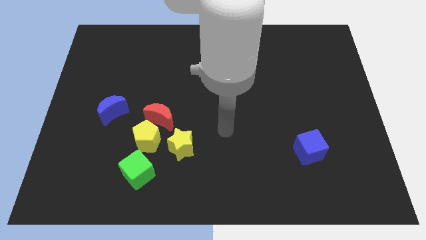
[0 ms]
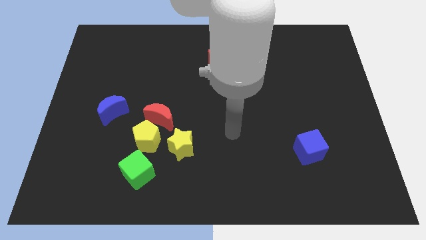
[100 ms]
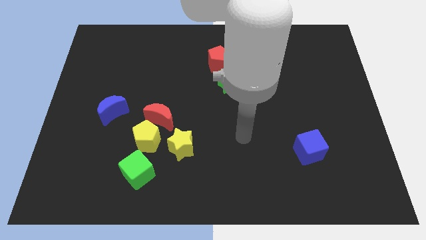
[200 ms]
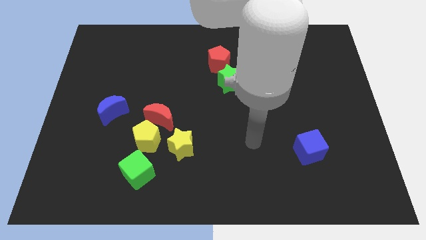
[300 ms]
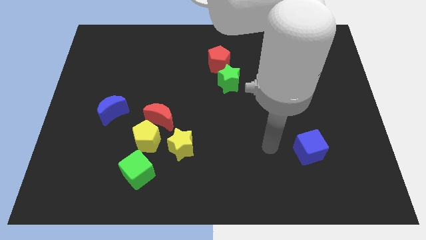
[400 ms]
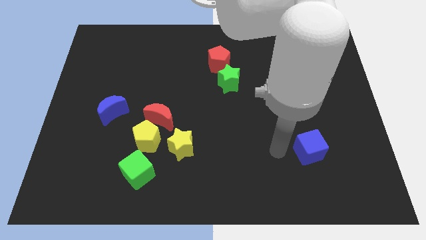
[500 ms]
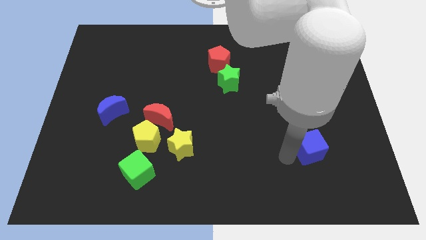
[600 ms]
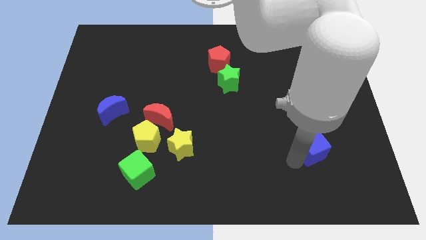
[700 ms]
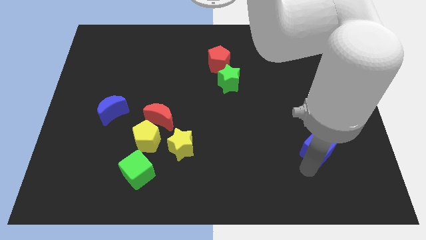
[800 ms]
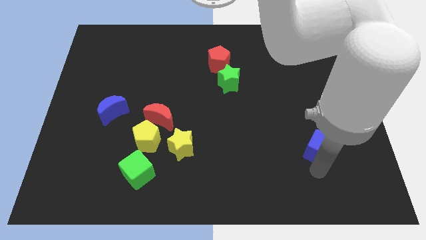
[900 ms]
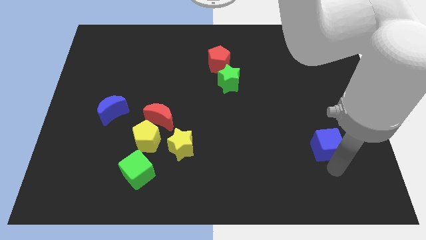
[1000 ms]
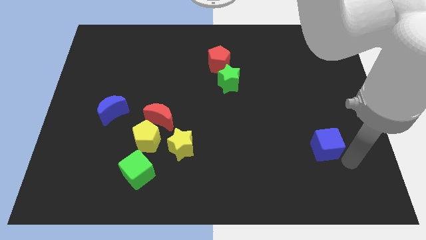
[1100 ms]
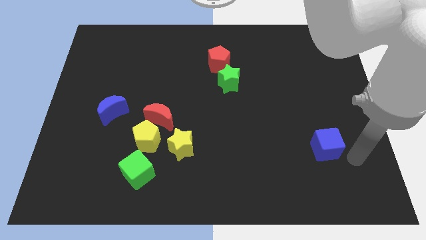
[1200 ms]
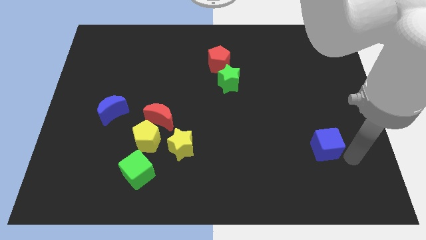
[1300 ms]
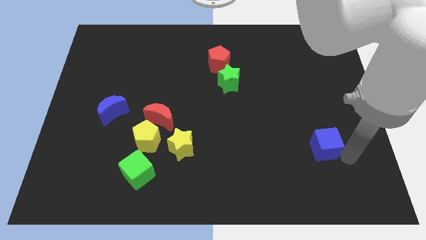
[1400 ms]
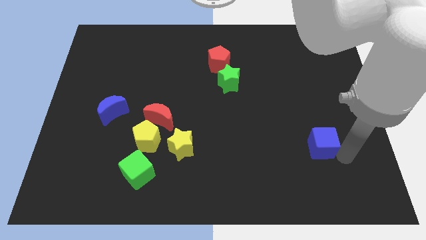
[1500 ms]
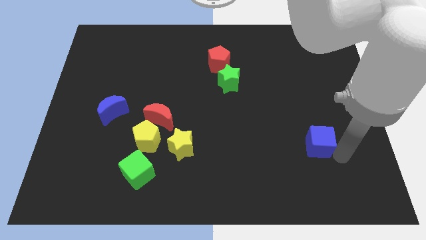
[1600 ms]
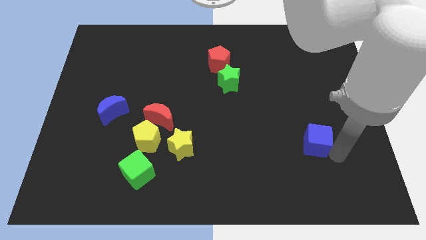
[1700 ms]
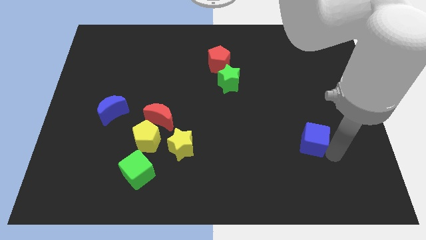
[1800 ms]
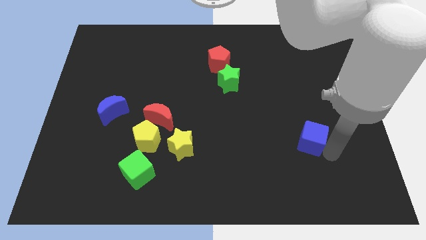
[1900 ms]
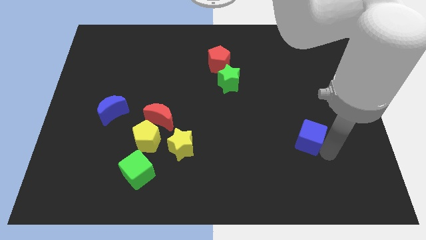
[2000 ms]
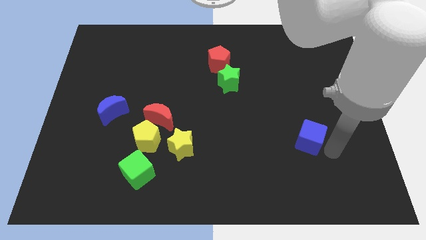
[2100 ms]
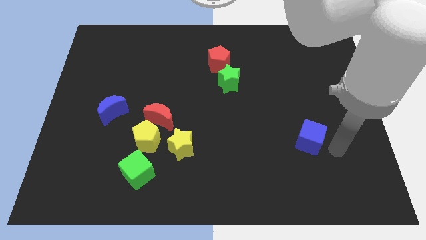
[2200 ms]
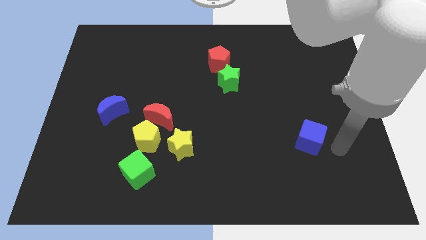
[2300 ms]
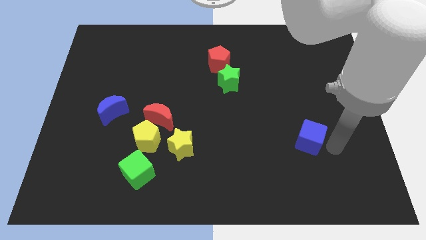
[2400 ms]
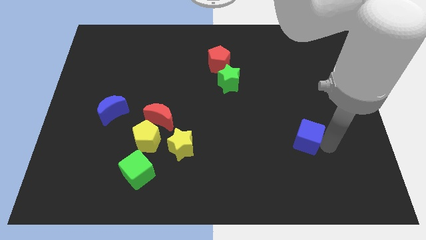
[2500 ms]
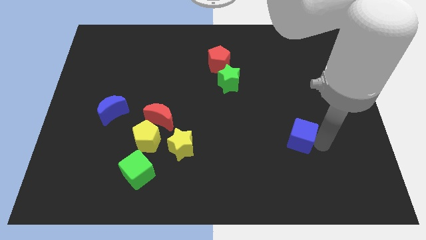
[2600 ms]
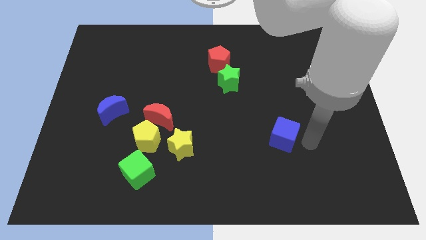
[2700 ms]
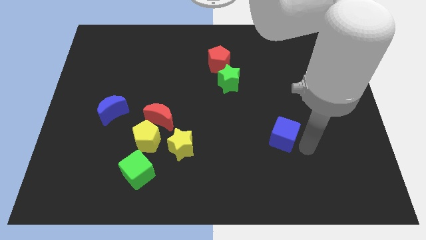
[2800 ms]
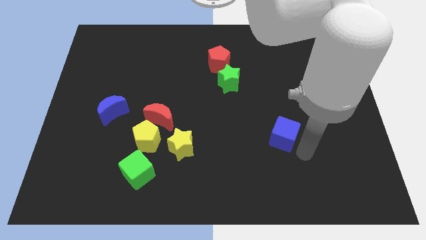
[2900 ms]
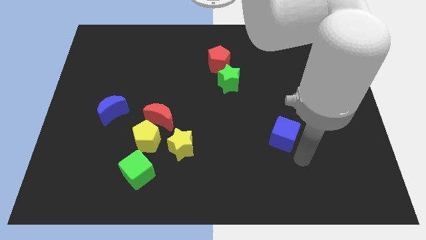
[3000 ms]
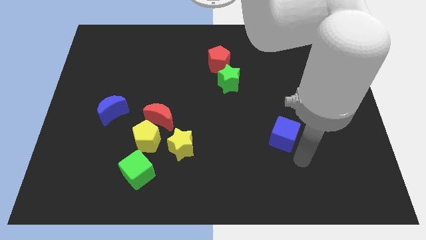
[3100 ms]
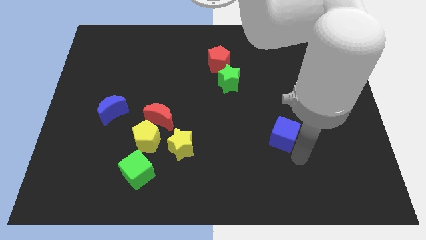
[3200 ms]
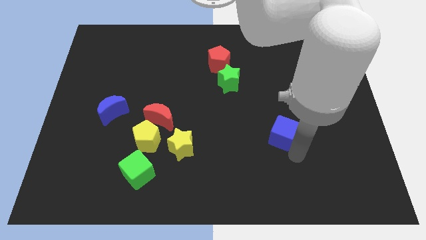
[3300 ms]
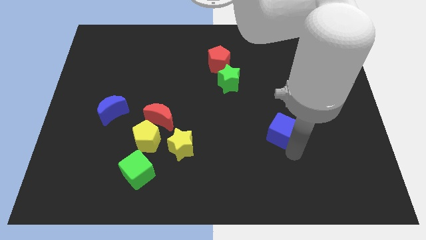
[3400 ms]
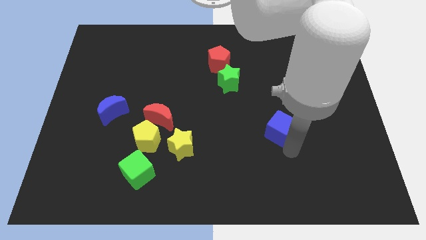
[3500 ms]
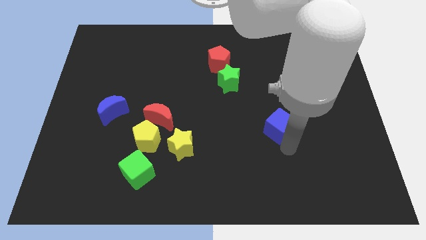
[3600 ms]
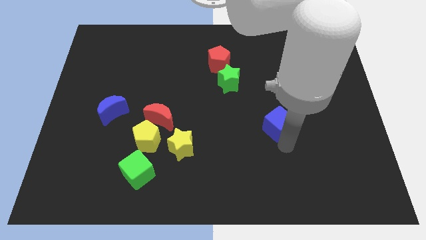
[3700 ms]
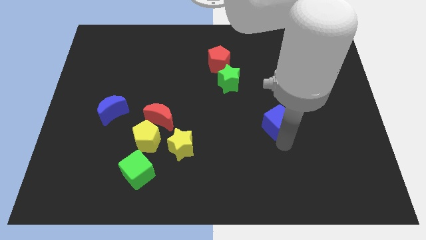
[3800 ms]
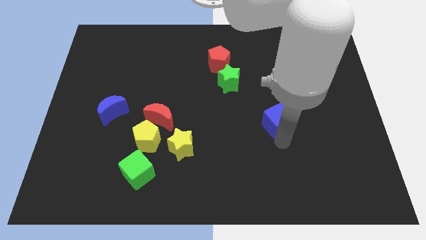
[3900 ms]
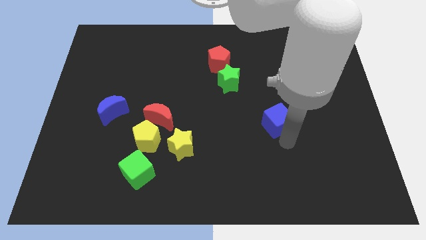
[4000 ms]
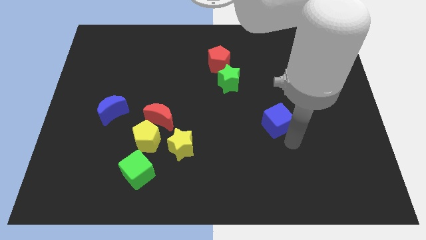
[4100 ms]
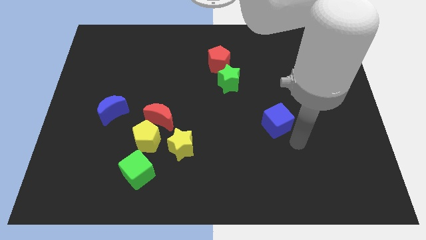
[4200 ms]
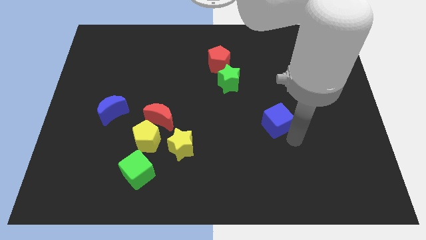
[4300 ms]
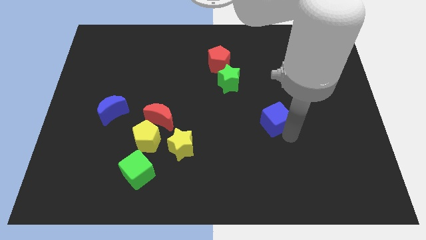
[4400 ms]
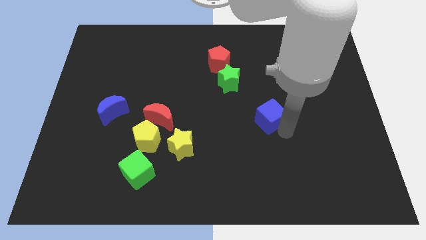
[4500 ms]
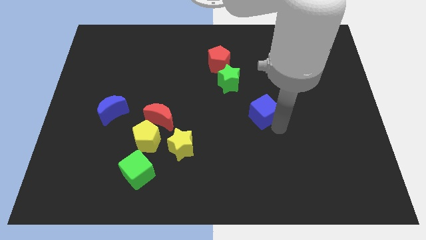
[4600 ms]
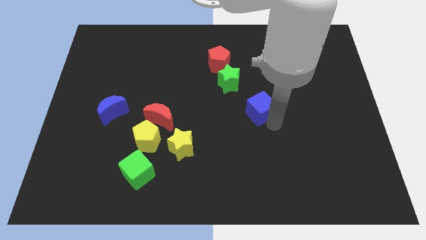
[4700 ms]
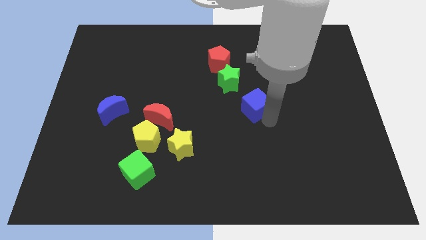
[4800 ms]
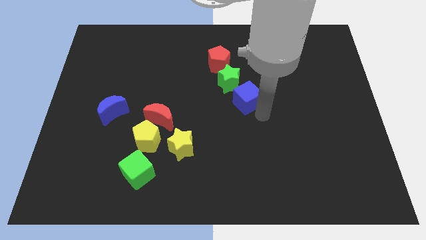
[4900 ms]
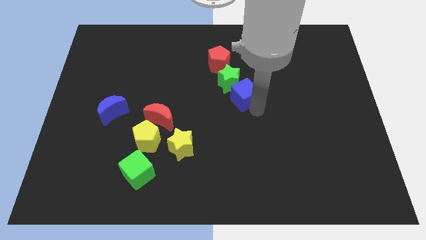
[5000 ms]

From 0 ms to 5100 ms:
move the blue cube to the green star

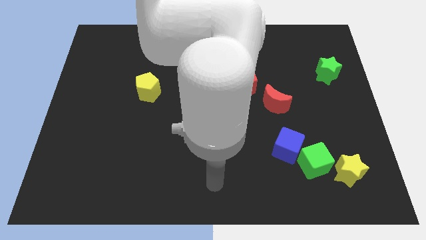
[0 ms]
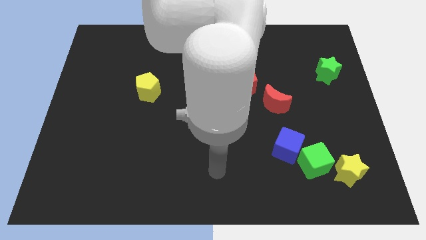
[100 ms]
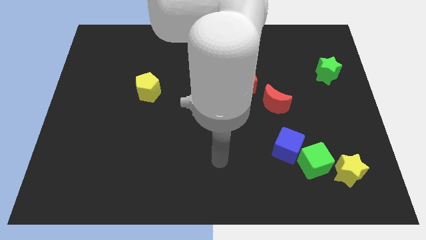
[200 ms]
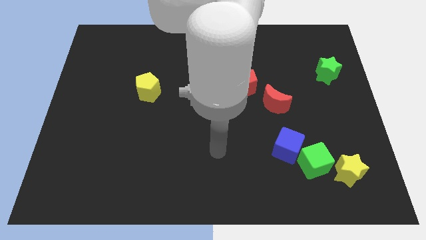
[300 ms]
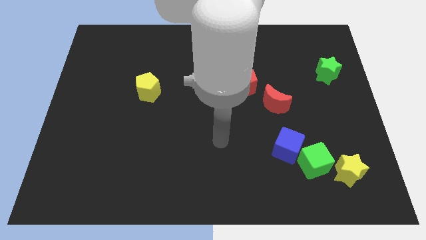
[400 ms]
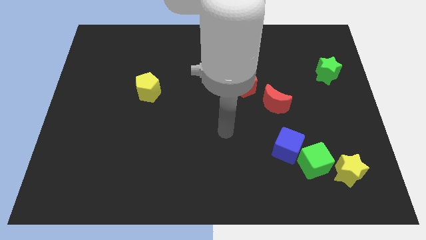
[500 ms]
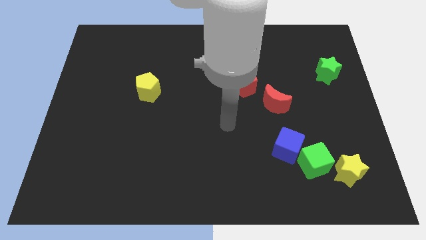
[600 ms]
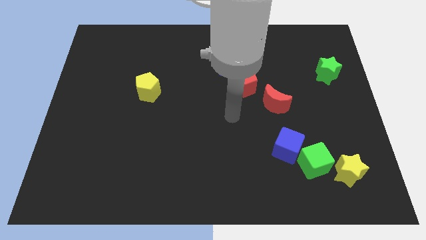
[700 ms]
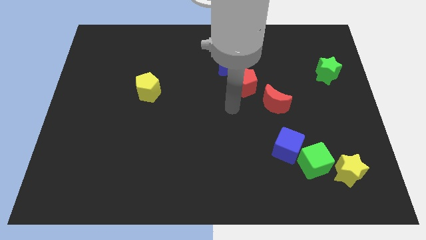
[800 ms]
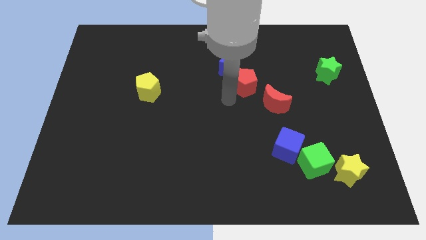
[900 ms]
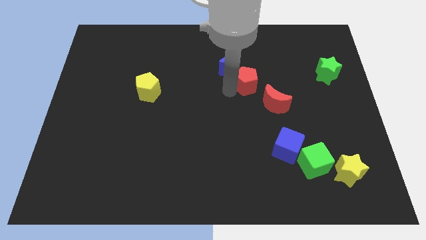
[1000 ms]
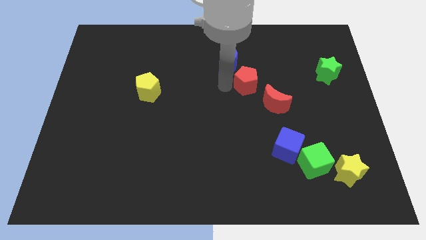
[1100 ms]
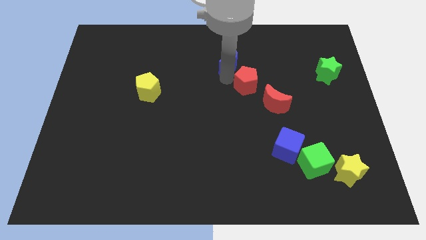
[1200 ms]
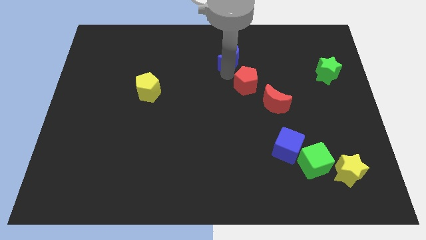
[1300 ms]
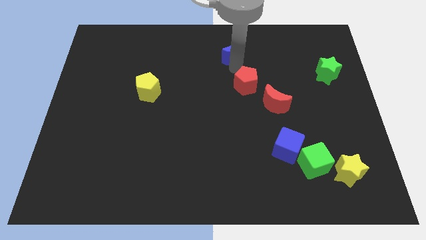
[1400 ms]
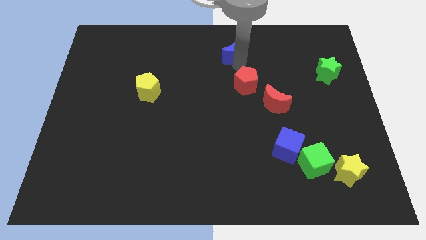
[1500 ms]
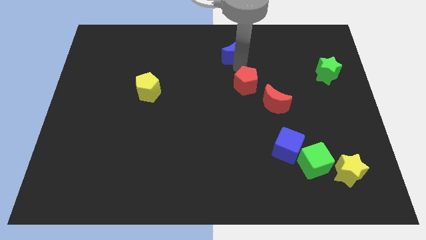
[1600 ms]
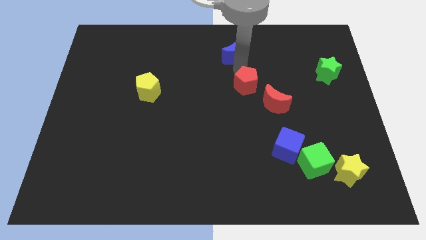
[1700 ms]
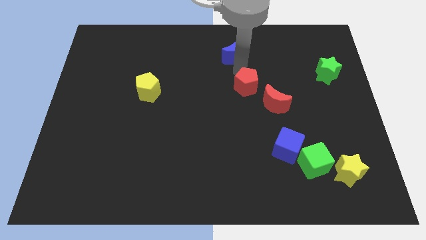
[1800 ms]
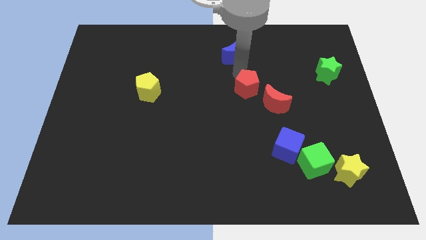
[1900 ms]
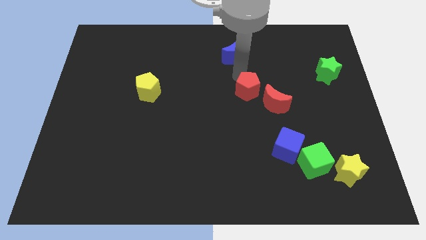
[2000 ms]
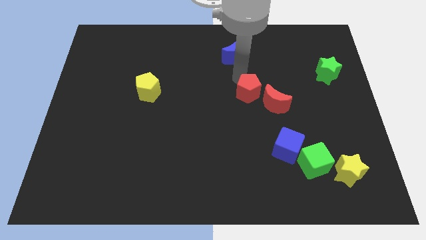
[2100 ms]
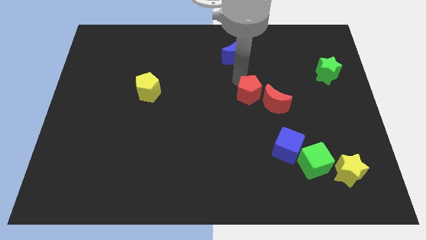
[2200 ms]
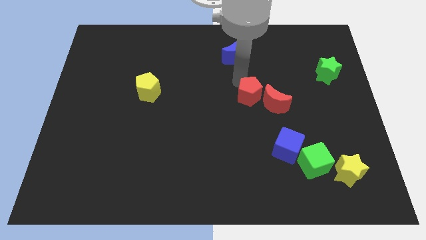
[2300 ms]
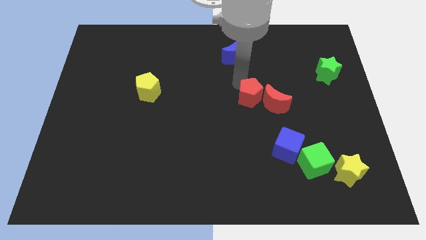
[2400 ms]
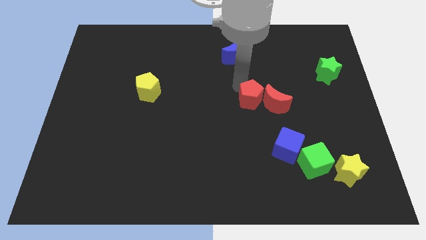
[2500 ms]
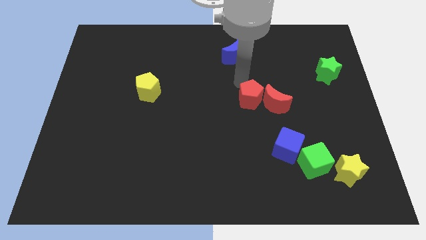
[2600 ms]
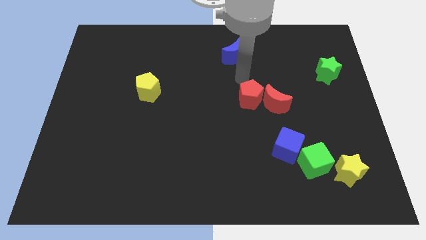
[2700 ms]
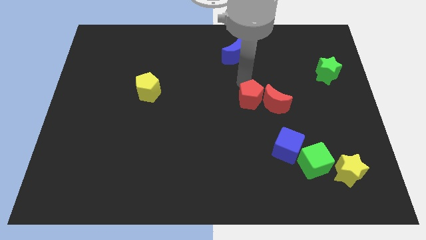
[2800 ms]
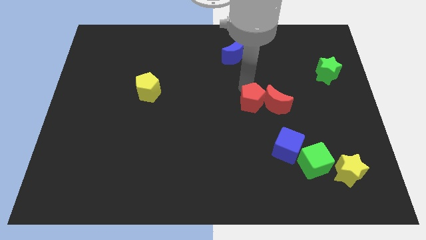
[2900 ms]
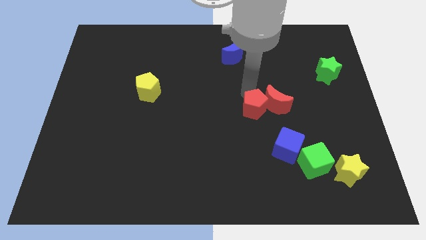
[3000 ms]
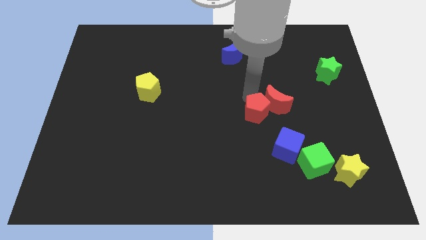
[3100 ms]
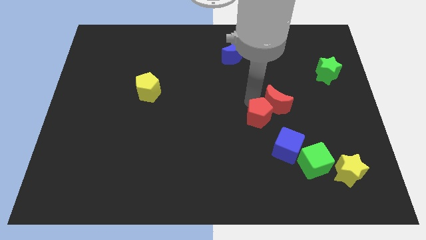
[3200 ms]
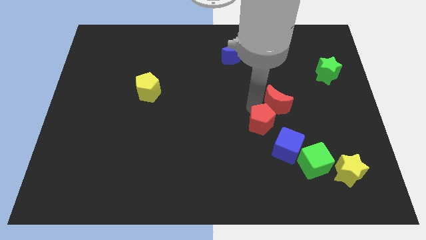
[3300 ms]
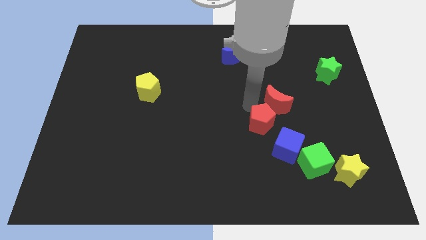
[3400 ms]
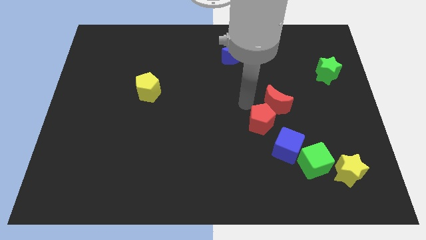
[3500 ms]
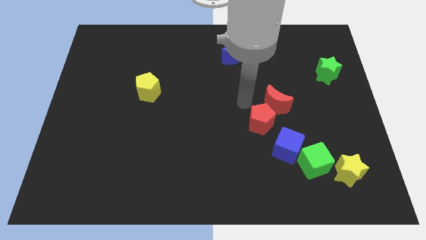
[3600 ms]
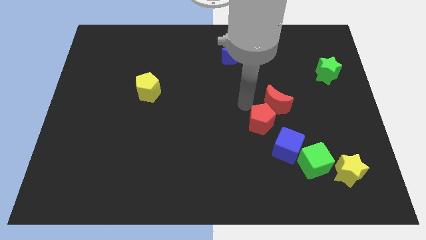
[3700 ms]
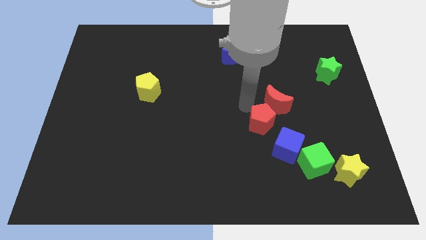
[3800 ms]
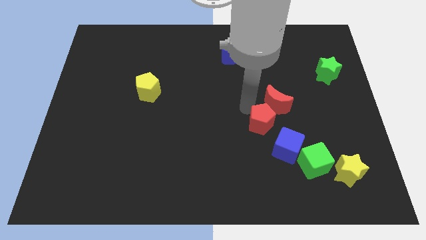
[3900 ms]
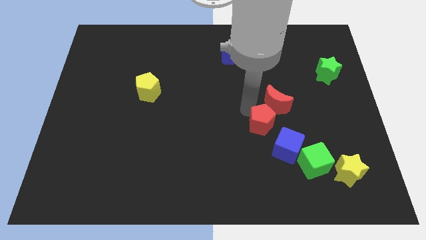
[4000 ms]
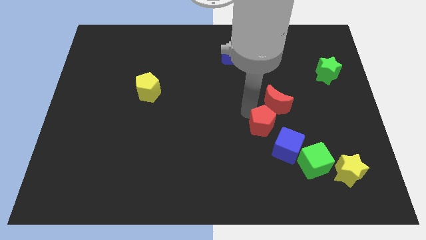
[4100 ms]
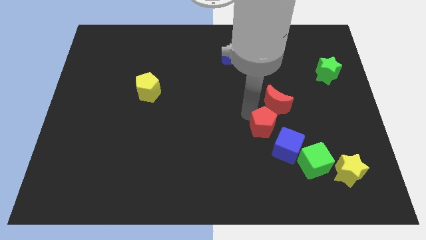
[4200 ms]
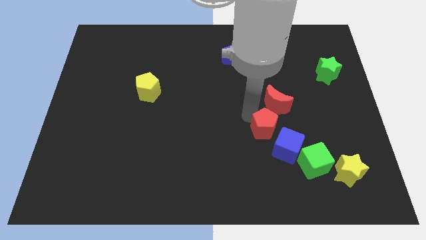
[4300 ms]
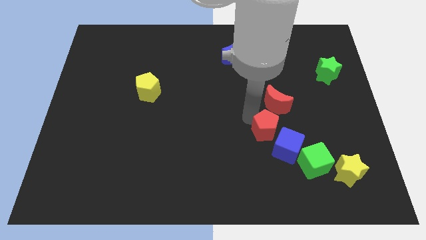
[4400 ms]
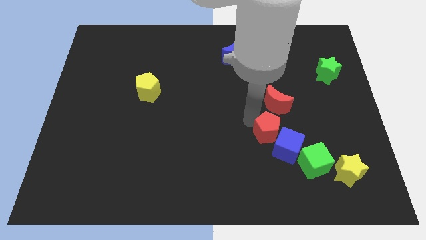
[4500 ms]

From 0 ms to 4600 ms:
push the red pentagon to the blue cube
